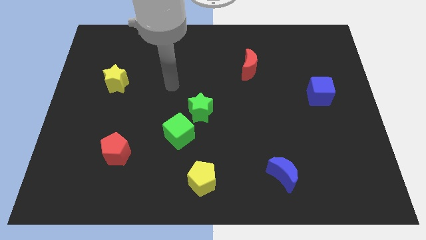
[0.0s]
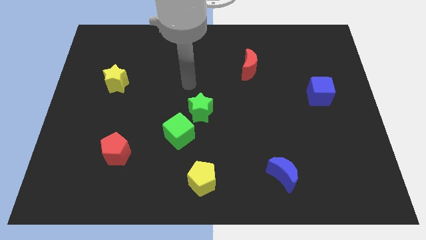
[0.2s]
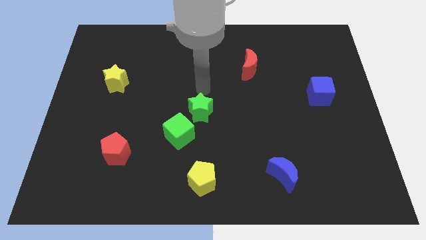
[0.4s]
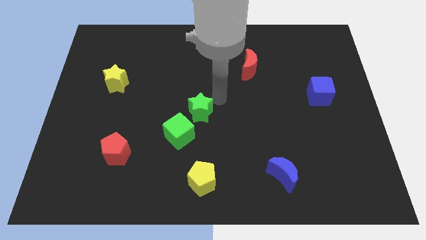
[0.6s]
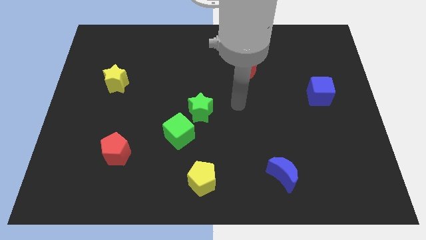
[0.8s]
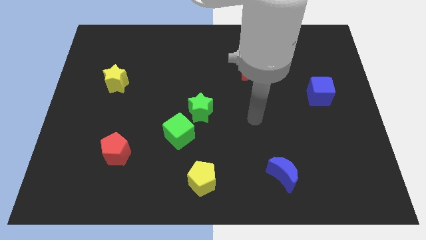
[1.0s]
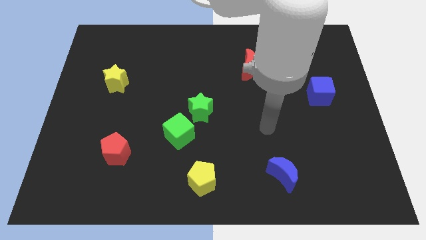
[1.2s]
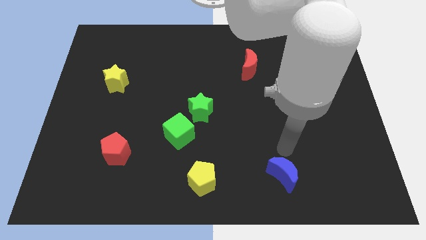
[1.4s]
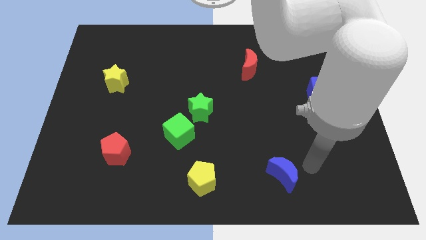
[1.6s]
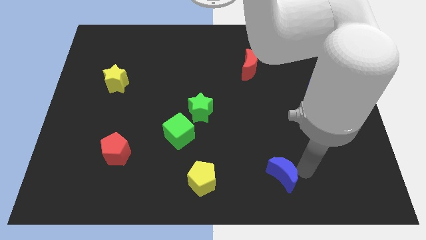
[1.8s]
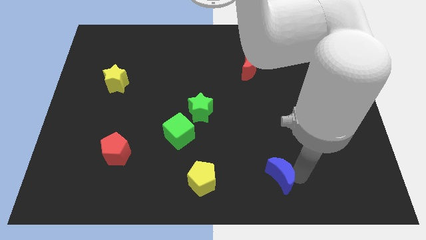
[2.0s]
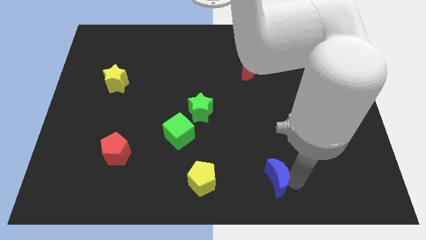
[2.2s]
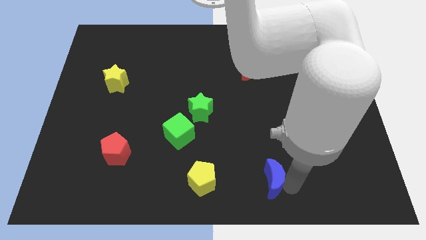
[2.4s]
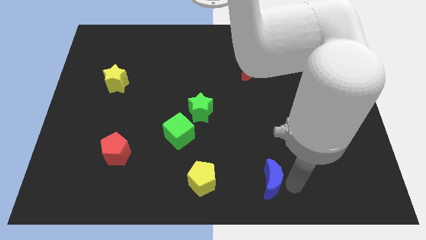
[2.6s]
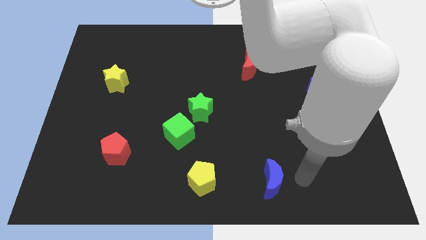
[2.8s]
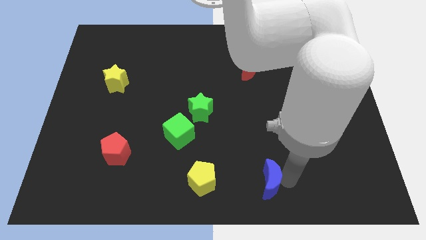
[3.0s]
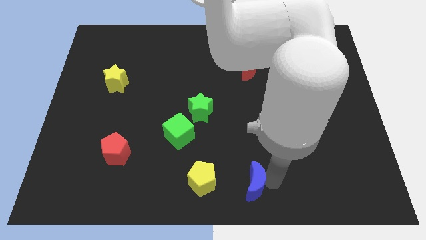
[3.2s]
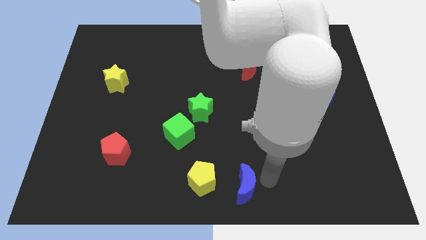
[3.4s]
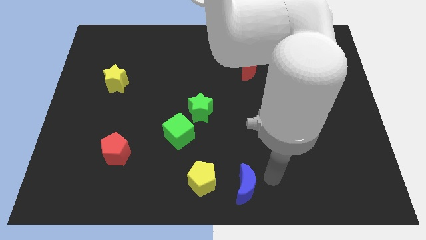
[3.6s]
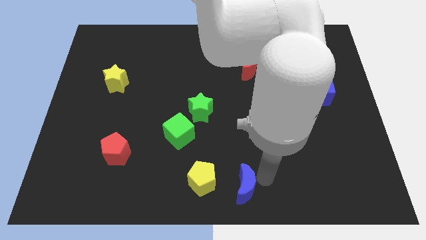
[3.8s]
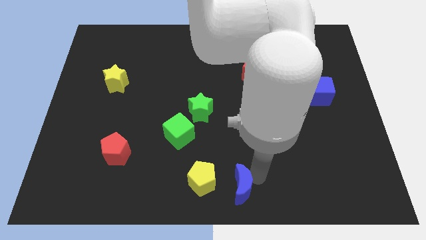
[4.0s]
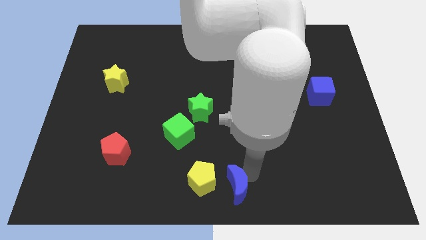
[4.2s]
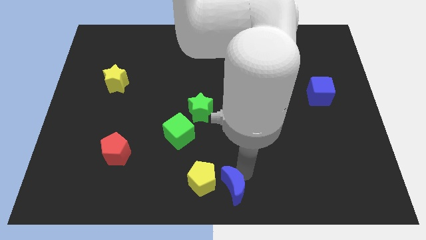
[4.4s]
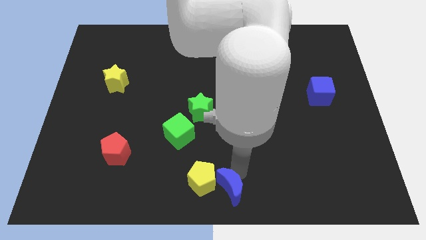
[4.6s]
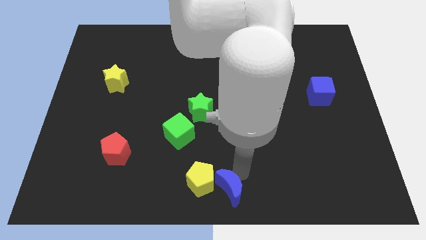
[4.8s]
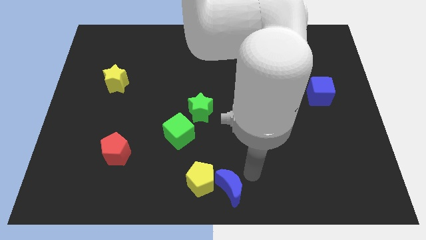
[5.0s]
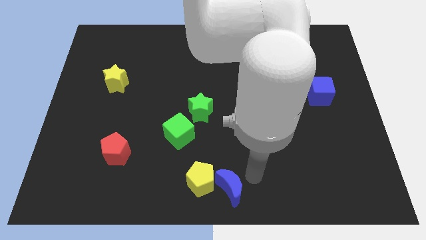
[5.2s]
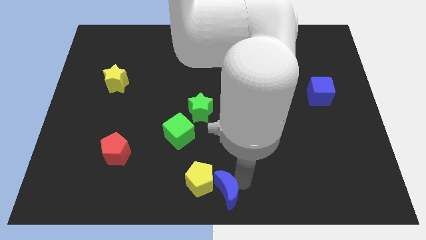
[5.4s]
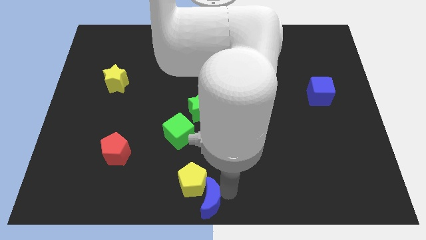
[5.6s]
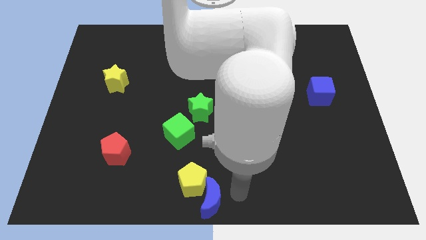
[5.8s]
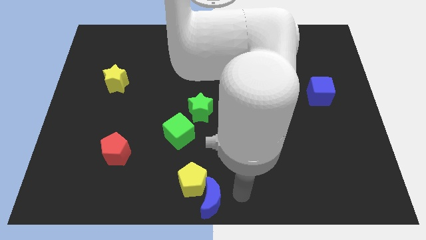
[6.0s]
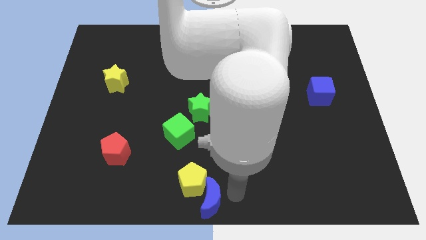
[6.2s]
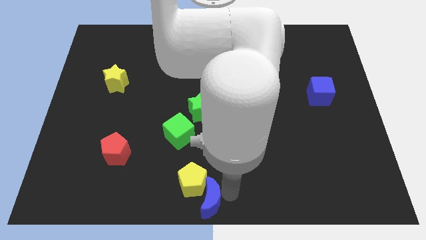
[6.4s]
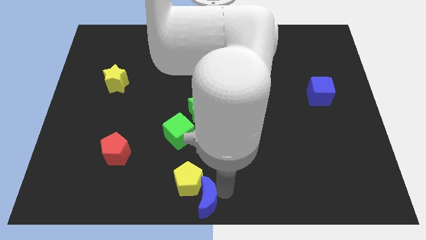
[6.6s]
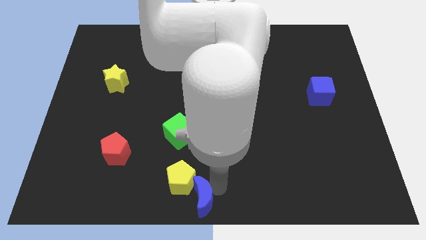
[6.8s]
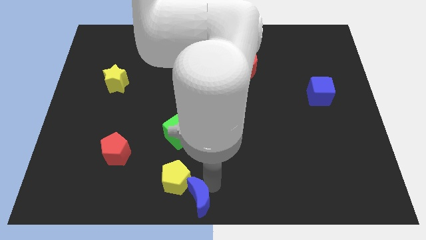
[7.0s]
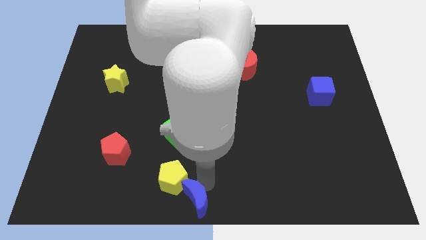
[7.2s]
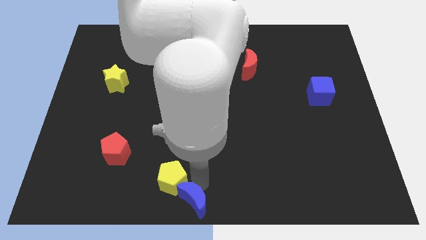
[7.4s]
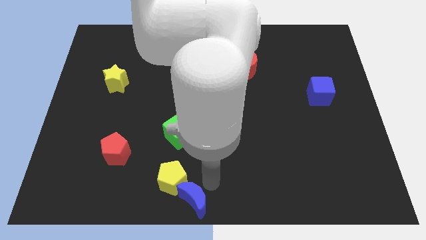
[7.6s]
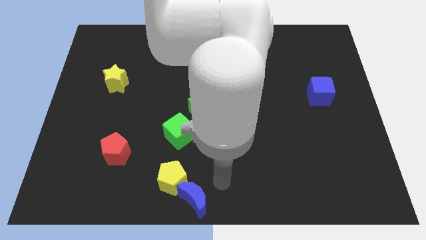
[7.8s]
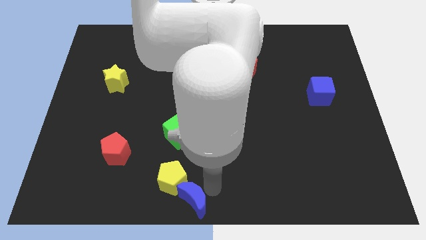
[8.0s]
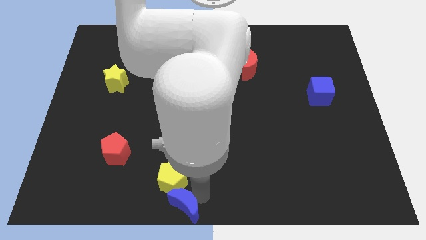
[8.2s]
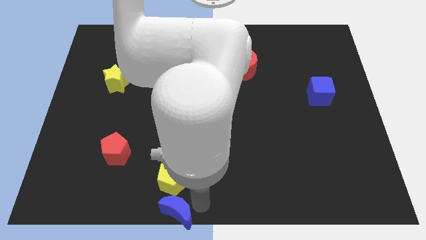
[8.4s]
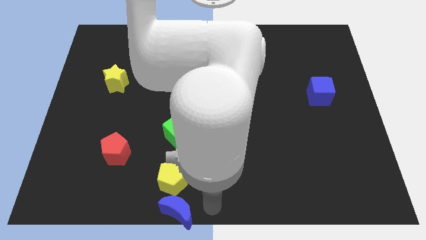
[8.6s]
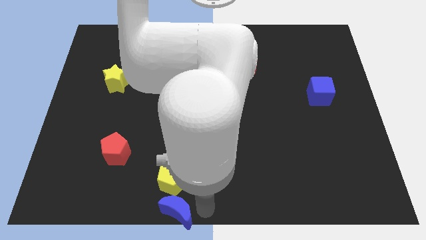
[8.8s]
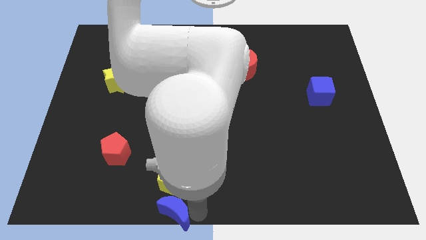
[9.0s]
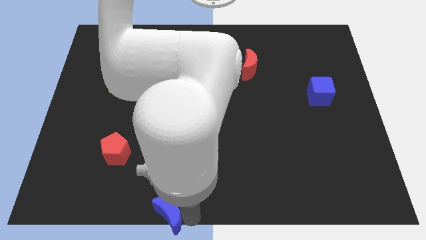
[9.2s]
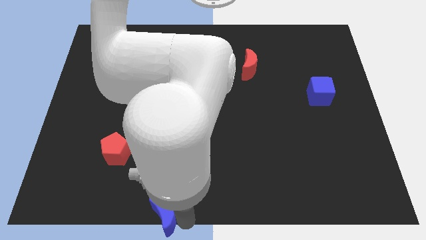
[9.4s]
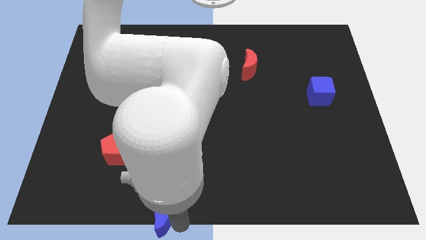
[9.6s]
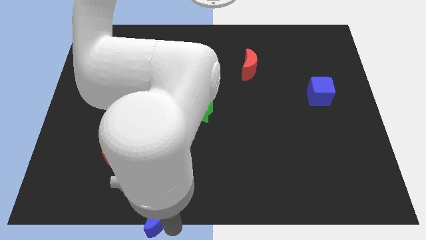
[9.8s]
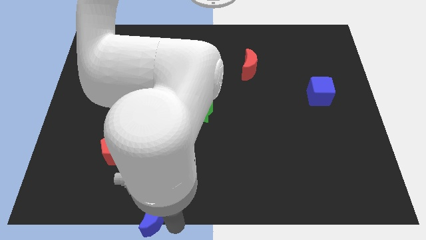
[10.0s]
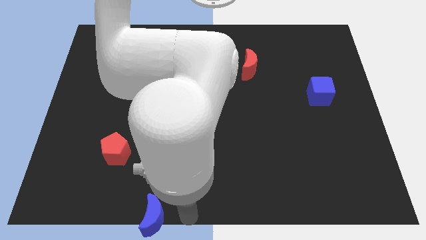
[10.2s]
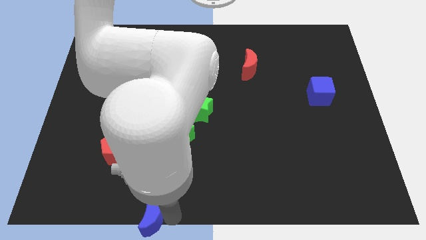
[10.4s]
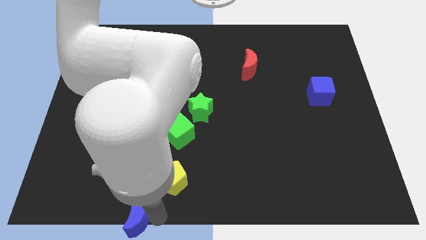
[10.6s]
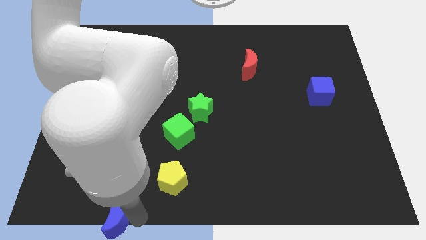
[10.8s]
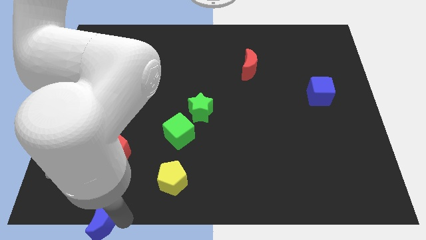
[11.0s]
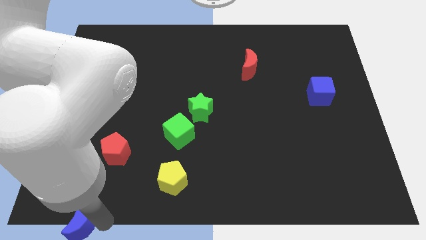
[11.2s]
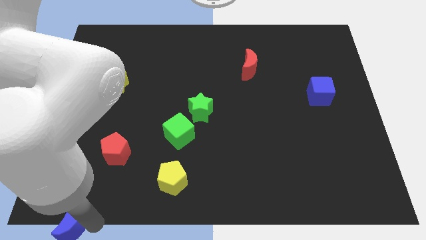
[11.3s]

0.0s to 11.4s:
move the blue moon to the bottom left

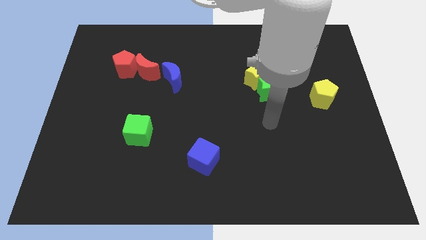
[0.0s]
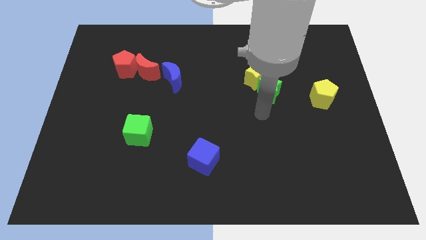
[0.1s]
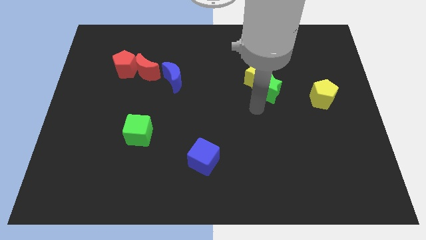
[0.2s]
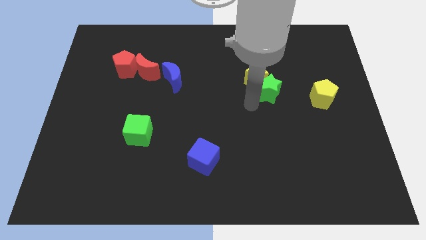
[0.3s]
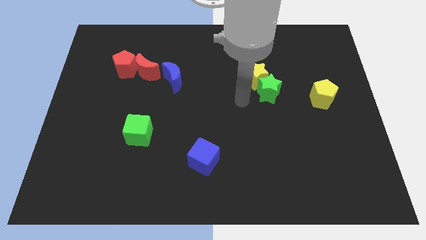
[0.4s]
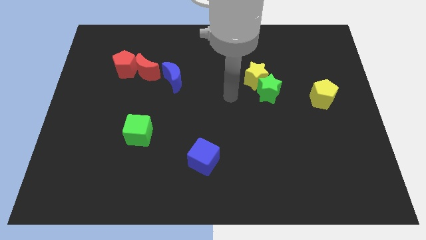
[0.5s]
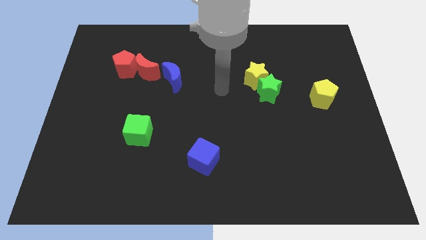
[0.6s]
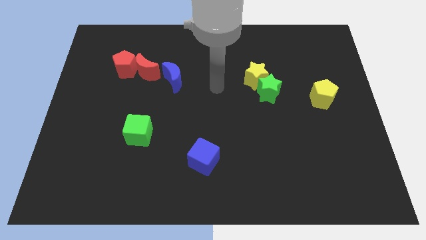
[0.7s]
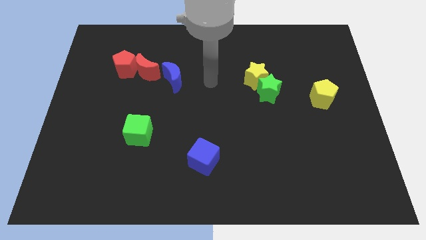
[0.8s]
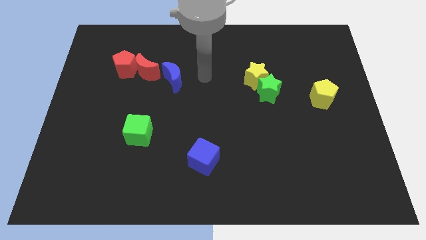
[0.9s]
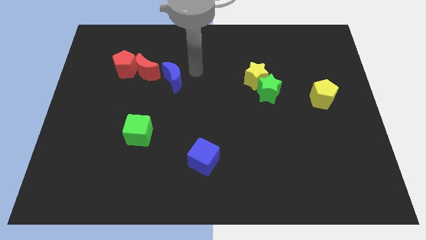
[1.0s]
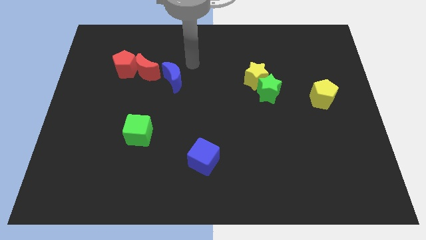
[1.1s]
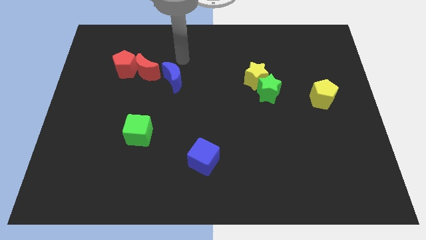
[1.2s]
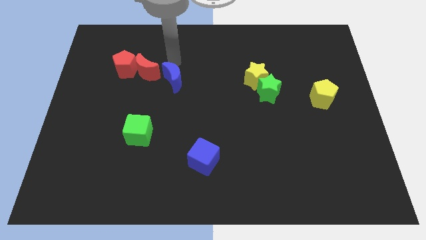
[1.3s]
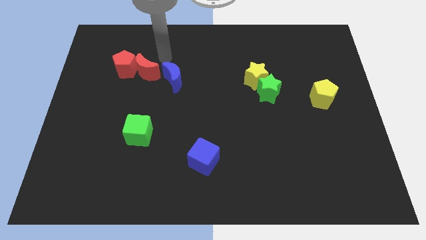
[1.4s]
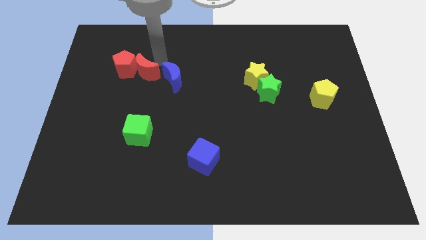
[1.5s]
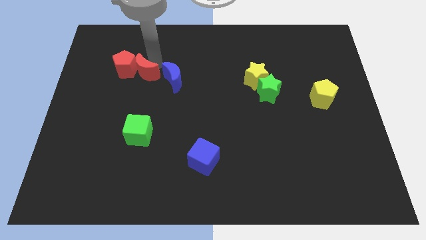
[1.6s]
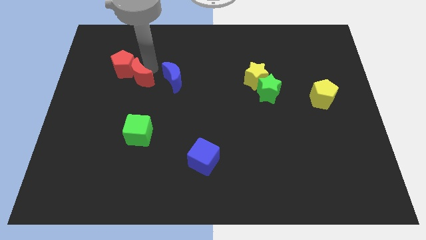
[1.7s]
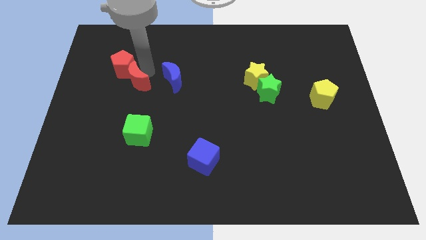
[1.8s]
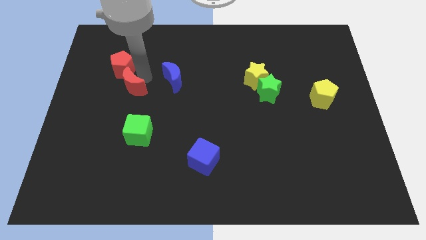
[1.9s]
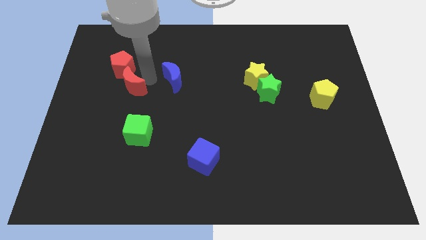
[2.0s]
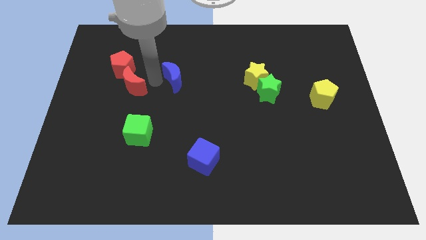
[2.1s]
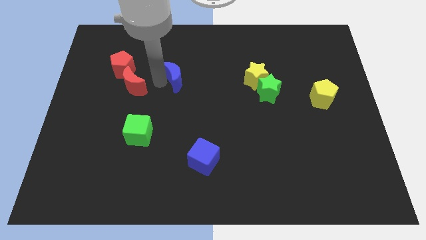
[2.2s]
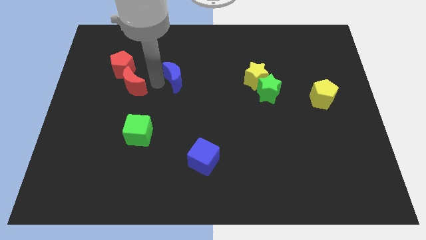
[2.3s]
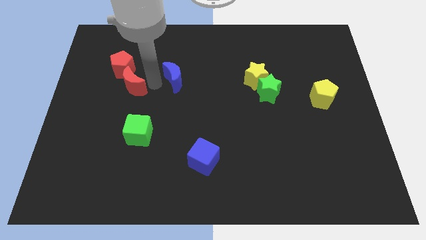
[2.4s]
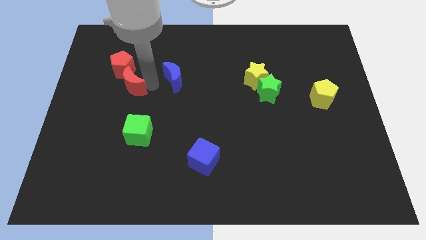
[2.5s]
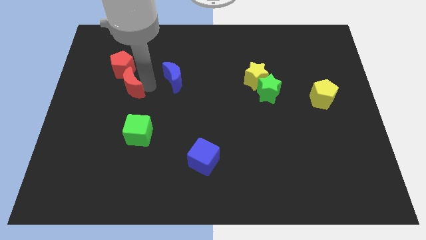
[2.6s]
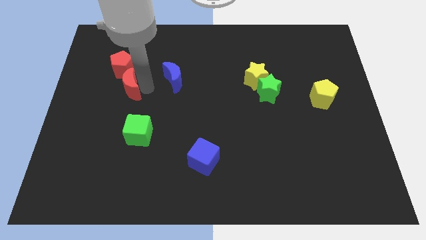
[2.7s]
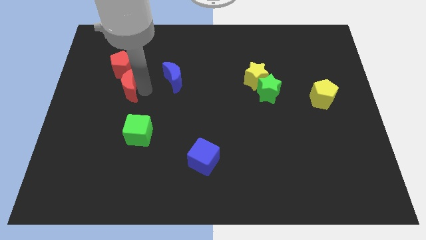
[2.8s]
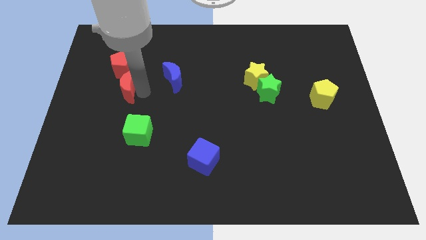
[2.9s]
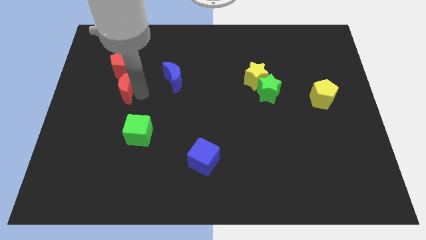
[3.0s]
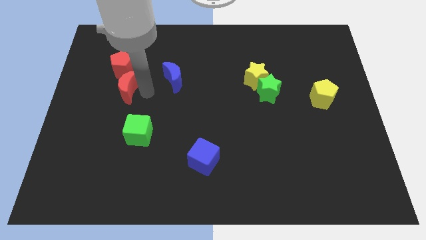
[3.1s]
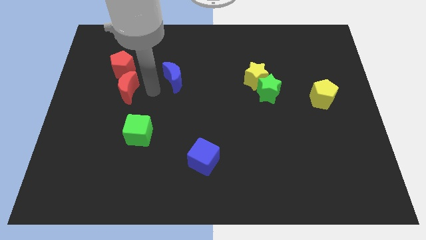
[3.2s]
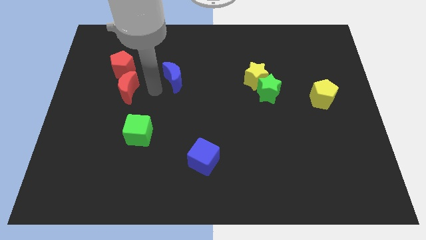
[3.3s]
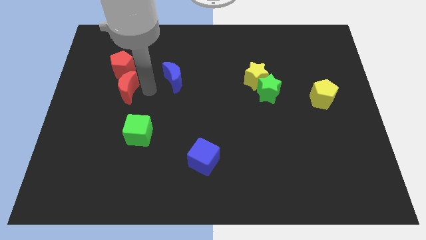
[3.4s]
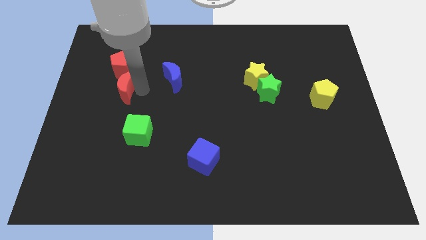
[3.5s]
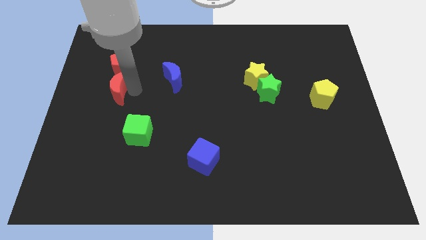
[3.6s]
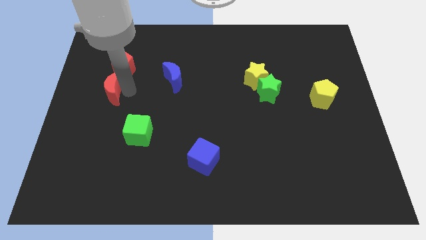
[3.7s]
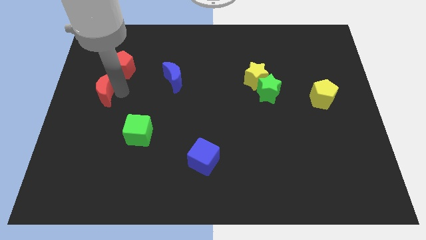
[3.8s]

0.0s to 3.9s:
slide the red moon to the center left
